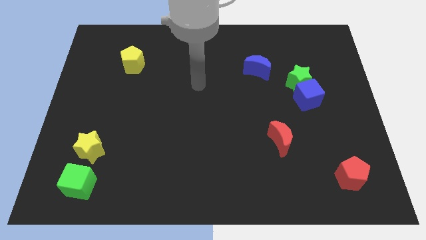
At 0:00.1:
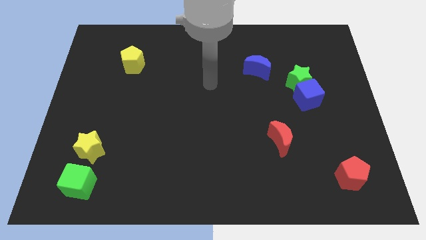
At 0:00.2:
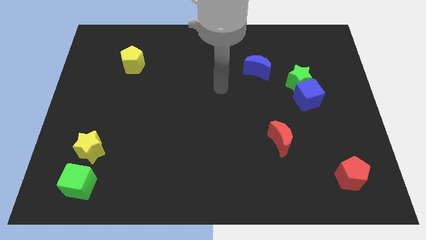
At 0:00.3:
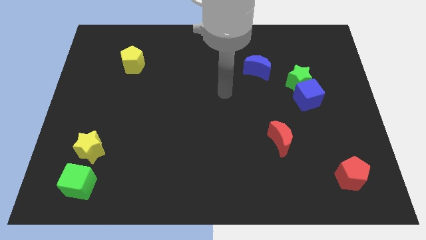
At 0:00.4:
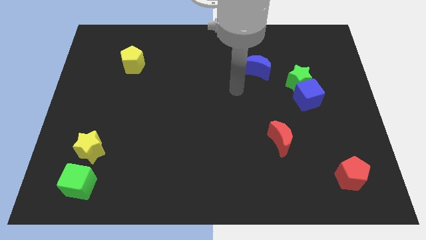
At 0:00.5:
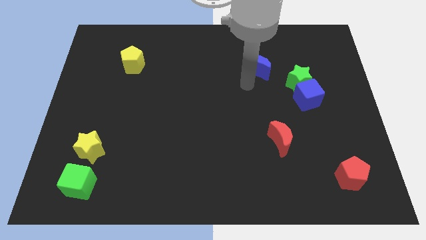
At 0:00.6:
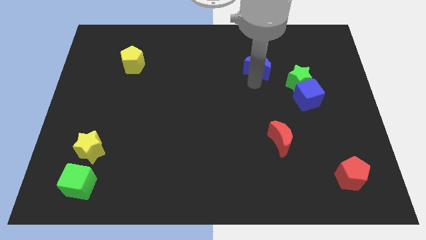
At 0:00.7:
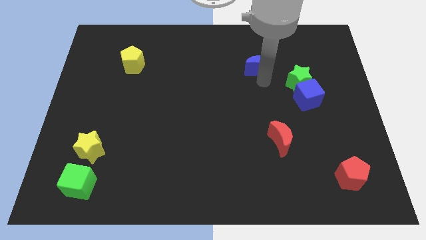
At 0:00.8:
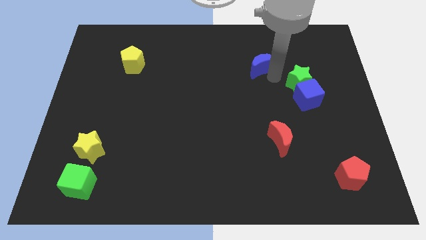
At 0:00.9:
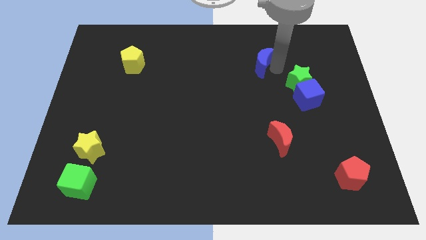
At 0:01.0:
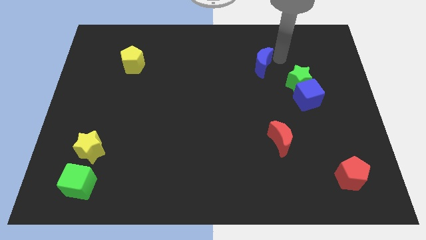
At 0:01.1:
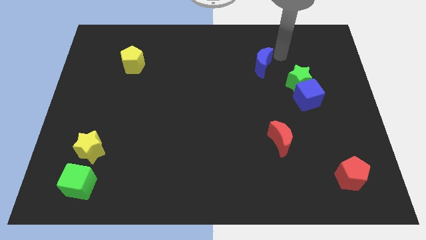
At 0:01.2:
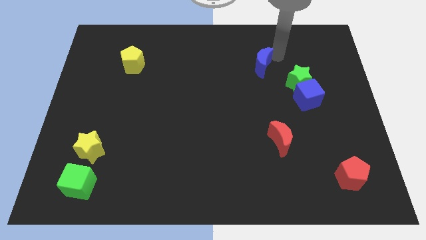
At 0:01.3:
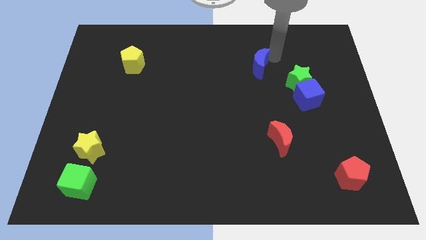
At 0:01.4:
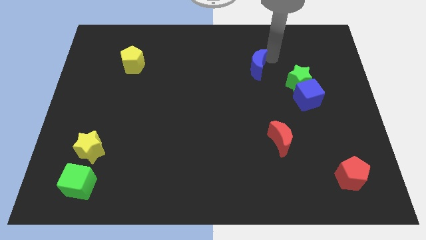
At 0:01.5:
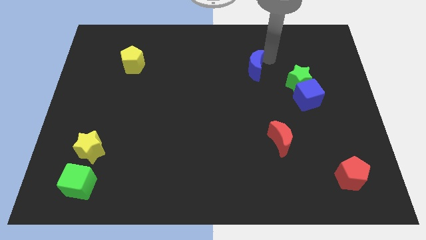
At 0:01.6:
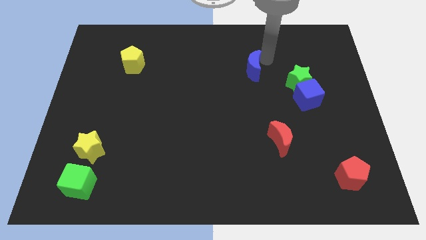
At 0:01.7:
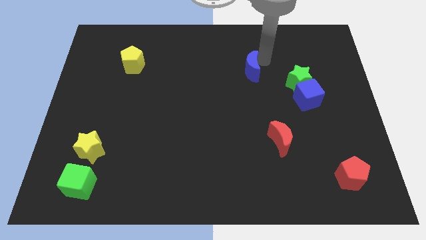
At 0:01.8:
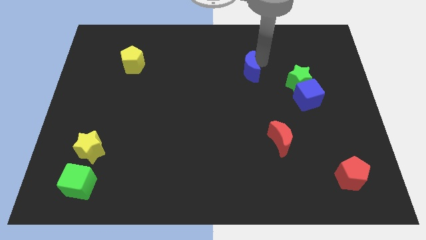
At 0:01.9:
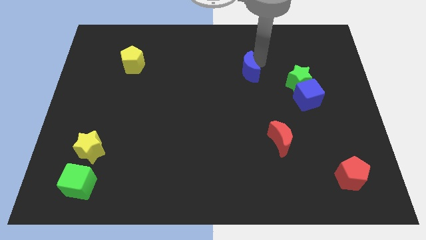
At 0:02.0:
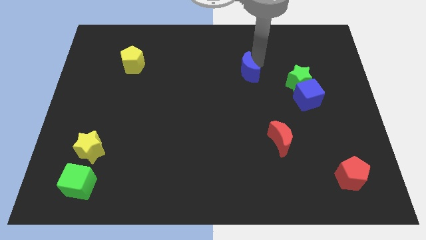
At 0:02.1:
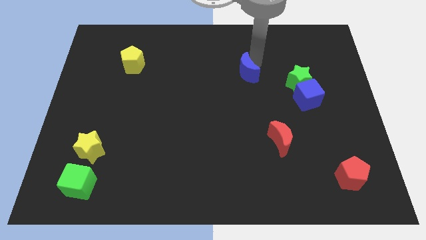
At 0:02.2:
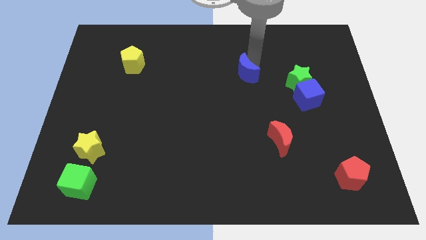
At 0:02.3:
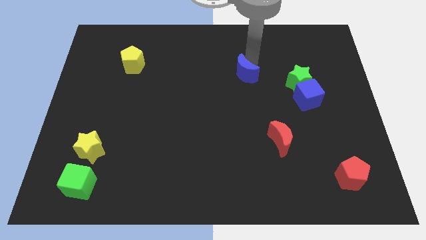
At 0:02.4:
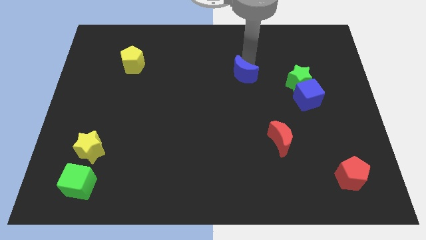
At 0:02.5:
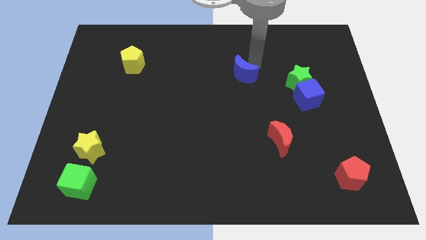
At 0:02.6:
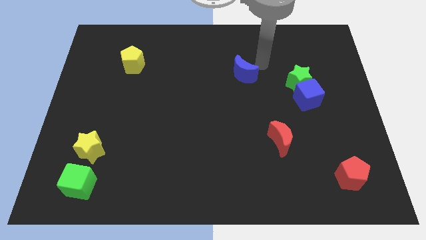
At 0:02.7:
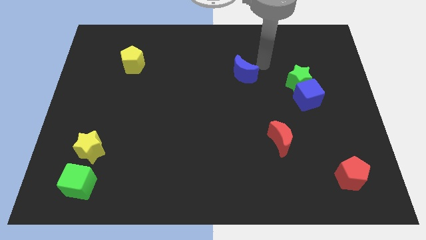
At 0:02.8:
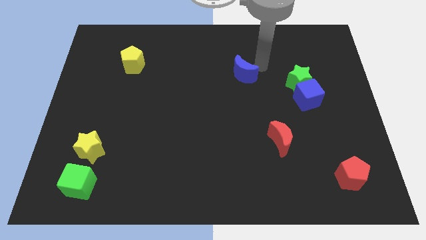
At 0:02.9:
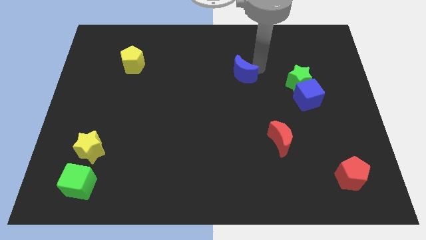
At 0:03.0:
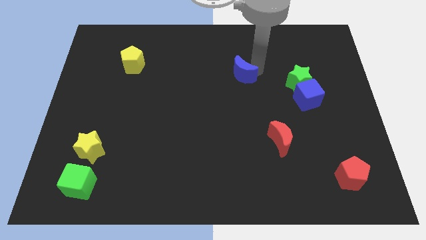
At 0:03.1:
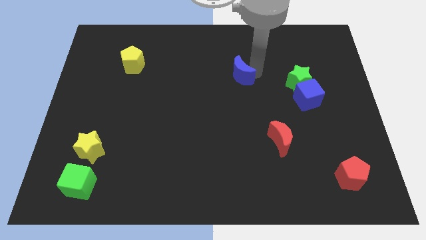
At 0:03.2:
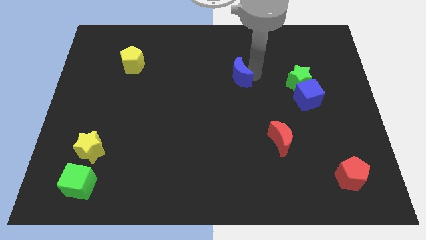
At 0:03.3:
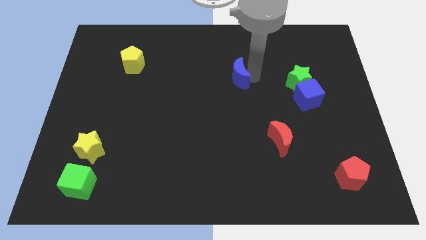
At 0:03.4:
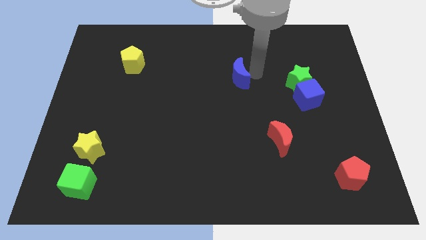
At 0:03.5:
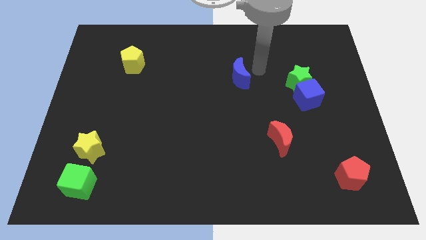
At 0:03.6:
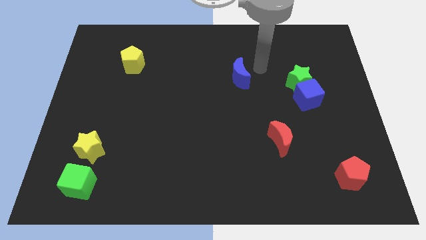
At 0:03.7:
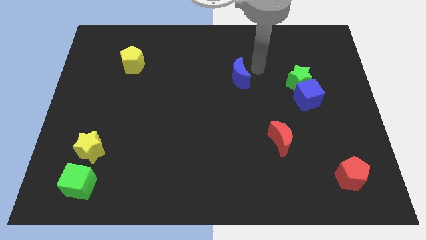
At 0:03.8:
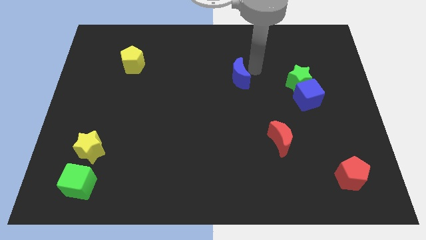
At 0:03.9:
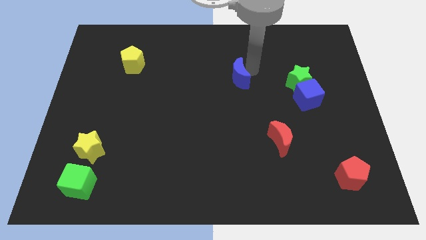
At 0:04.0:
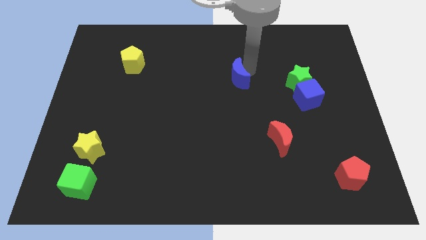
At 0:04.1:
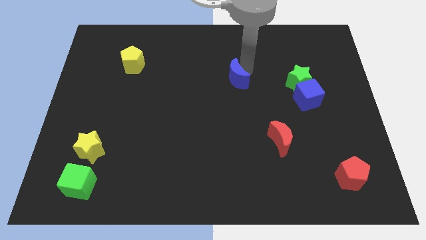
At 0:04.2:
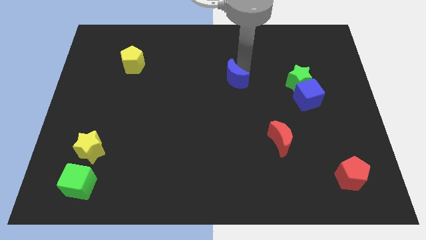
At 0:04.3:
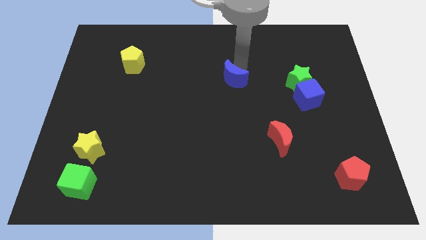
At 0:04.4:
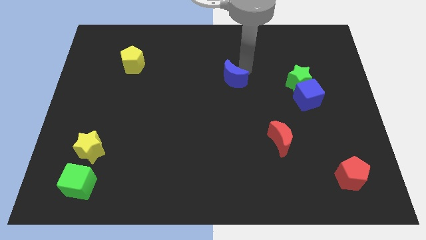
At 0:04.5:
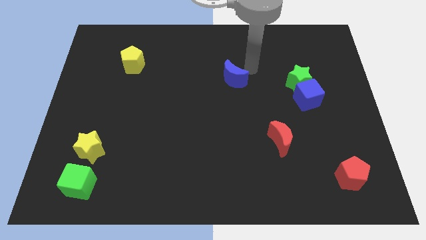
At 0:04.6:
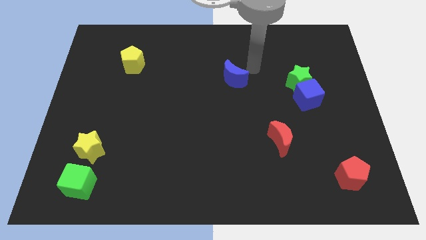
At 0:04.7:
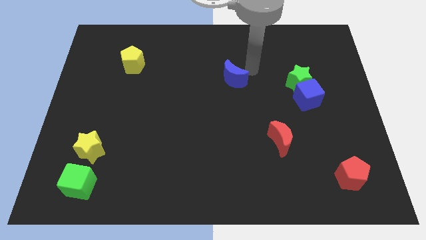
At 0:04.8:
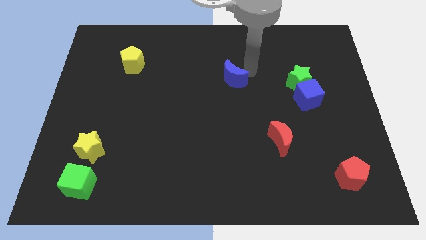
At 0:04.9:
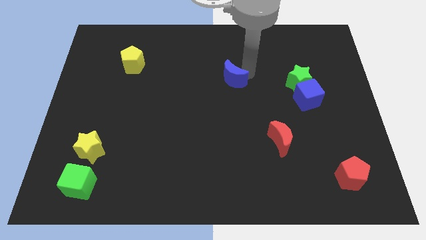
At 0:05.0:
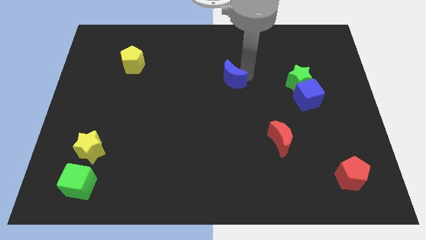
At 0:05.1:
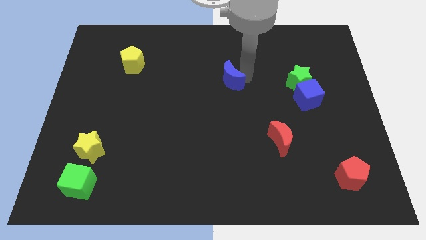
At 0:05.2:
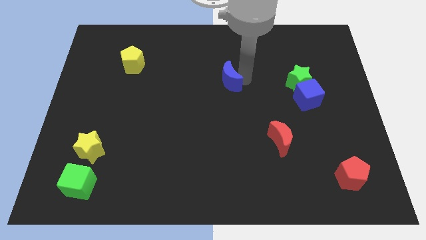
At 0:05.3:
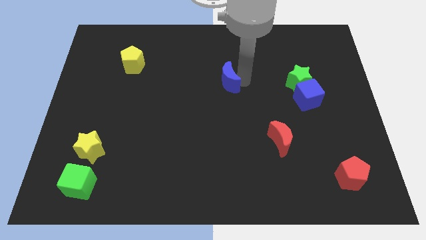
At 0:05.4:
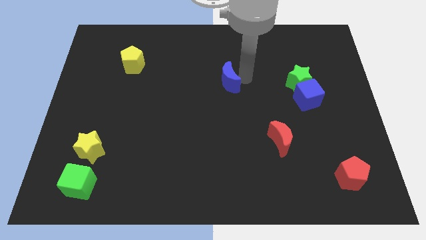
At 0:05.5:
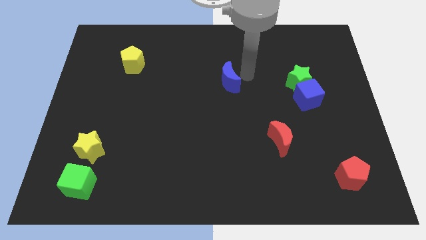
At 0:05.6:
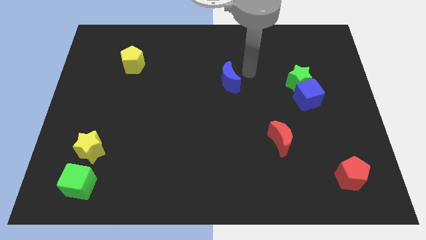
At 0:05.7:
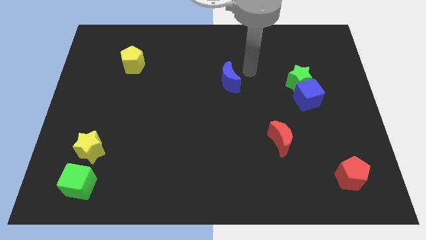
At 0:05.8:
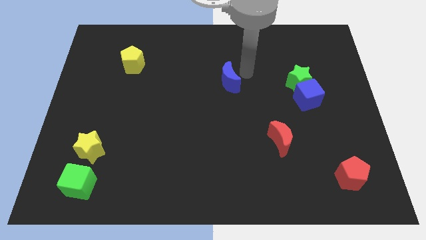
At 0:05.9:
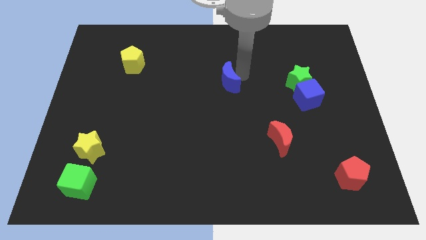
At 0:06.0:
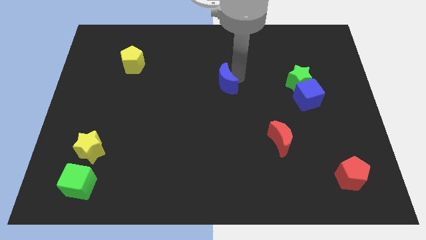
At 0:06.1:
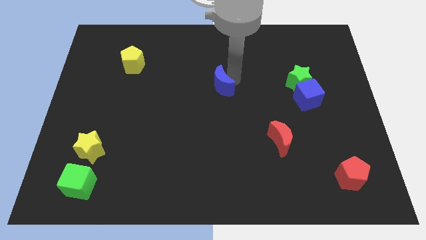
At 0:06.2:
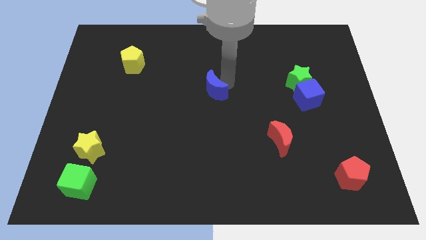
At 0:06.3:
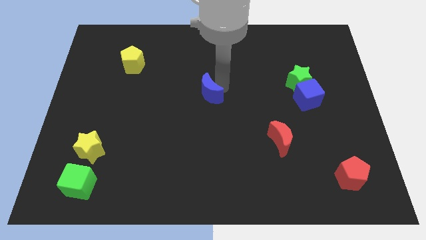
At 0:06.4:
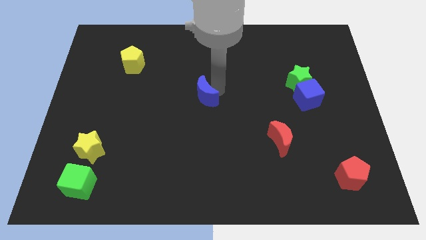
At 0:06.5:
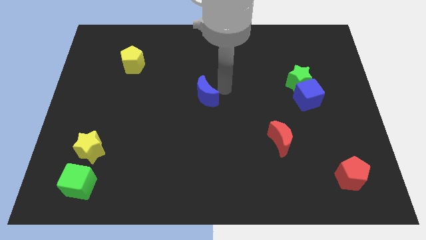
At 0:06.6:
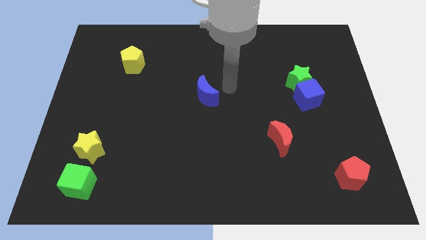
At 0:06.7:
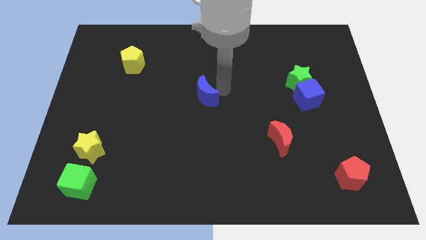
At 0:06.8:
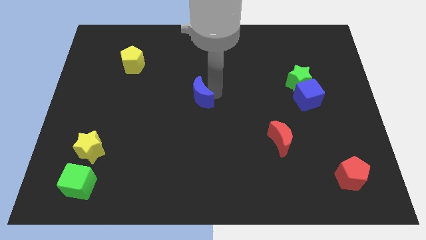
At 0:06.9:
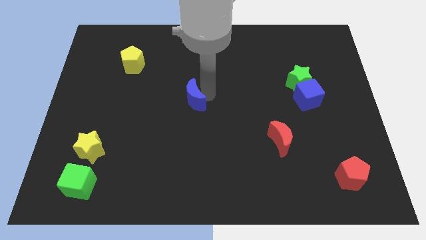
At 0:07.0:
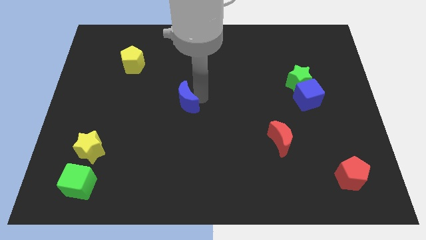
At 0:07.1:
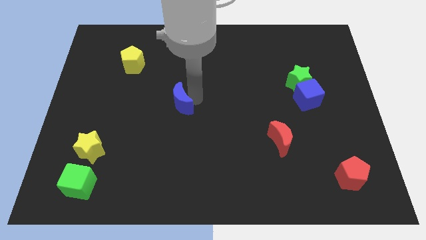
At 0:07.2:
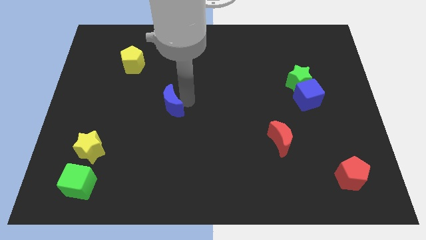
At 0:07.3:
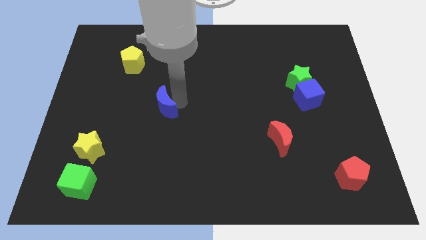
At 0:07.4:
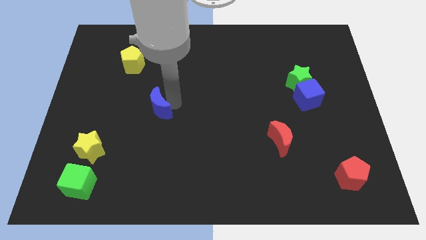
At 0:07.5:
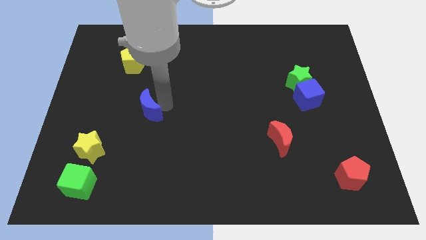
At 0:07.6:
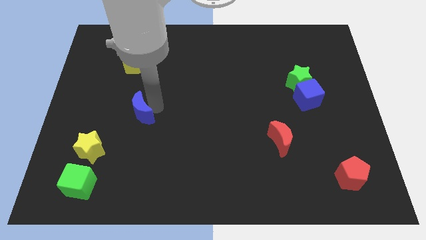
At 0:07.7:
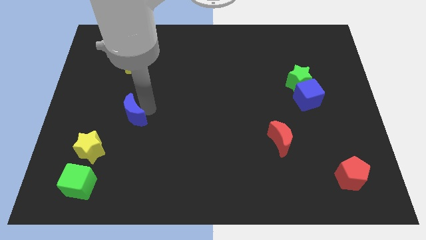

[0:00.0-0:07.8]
move the blue moon to the top right of the yellow star
